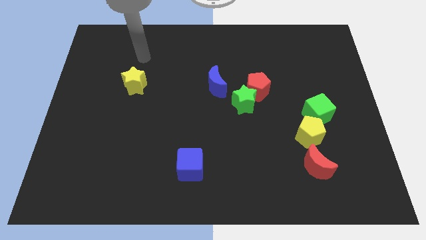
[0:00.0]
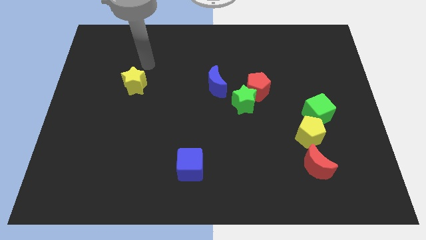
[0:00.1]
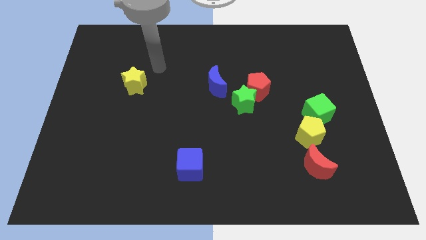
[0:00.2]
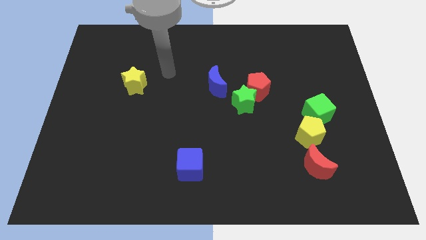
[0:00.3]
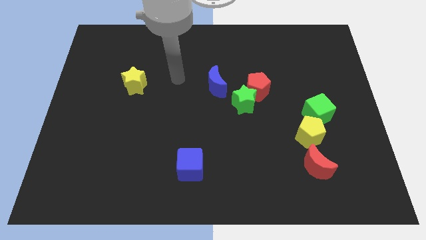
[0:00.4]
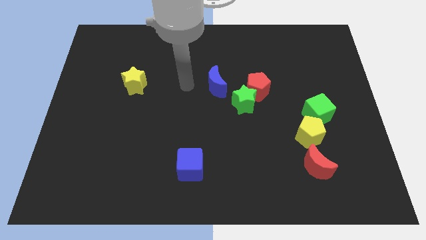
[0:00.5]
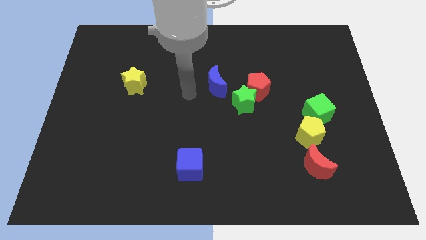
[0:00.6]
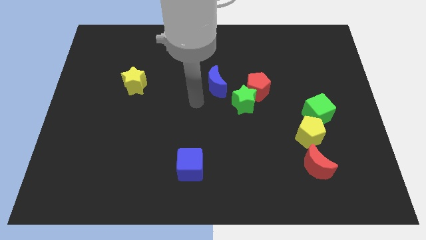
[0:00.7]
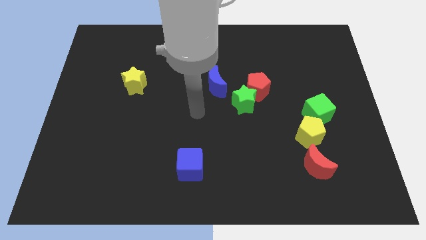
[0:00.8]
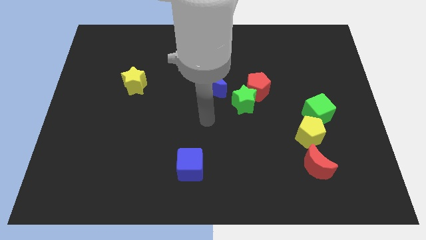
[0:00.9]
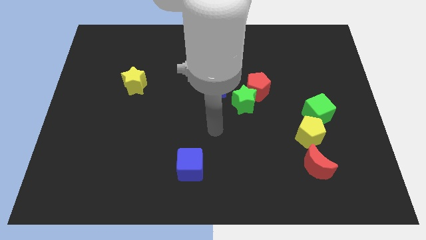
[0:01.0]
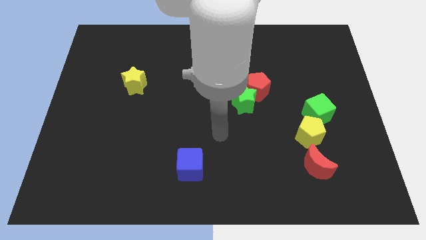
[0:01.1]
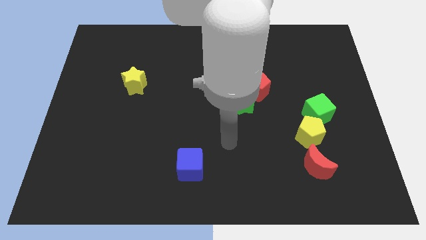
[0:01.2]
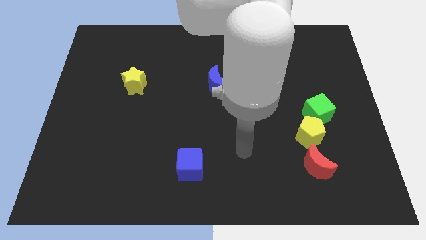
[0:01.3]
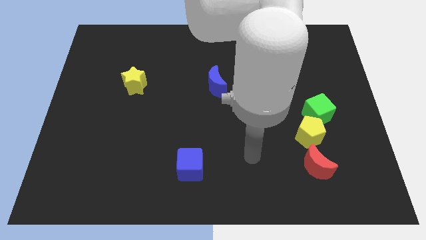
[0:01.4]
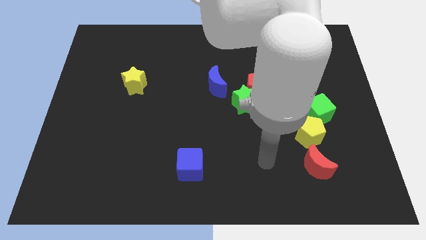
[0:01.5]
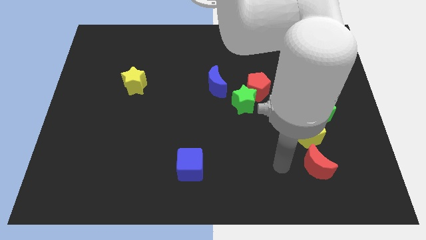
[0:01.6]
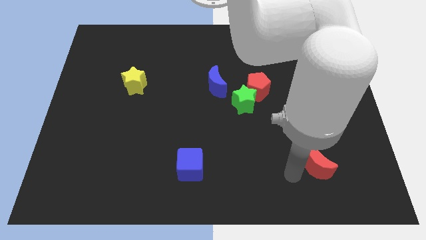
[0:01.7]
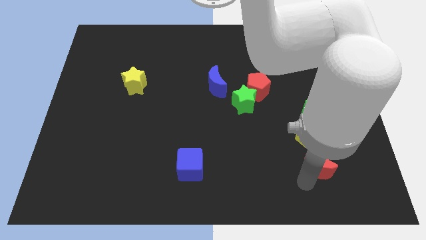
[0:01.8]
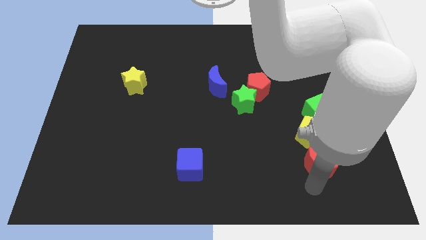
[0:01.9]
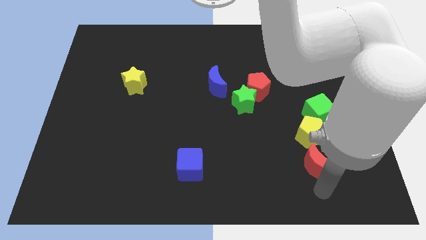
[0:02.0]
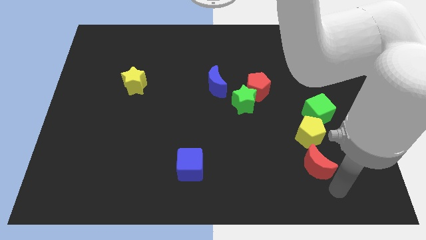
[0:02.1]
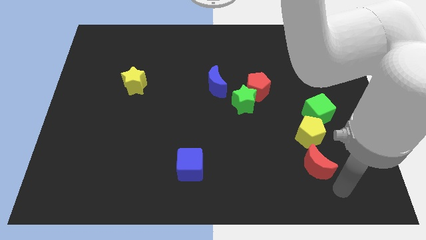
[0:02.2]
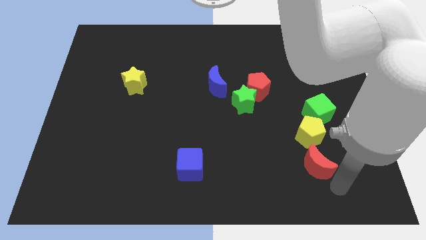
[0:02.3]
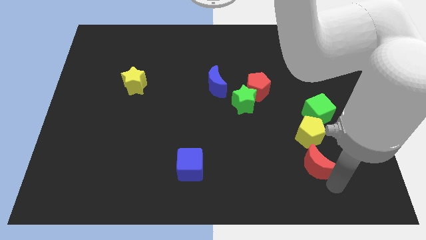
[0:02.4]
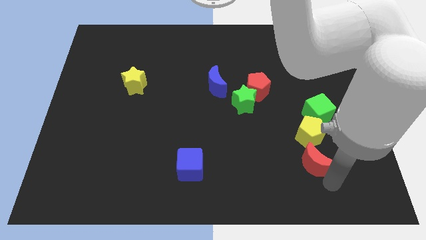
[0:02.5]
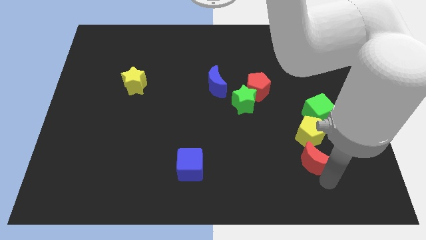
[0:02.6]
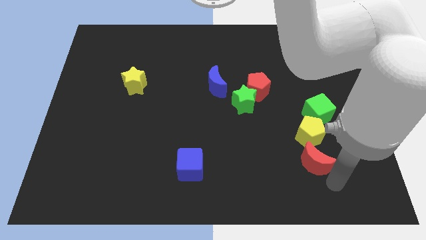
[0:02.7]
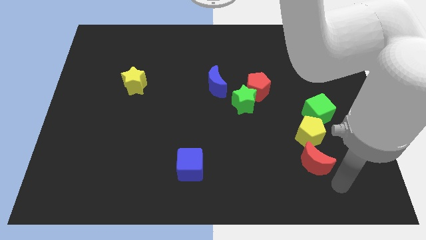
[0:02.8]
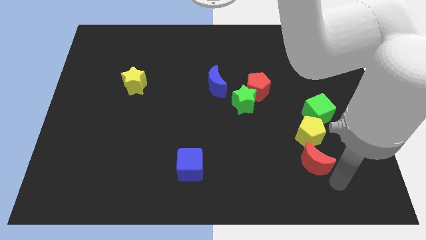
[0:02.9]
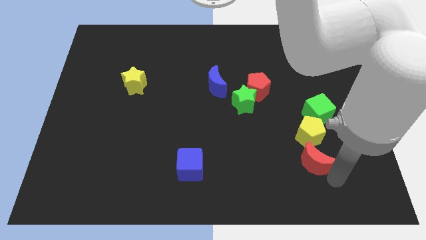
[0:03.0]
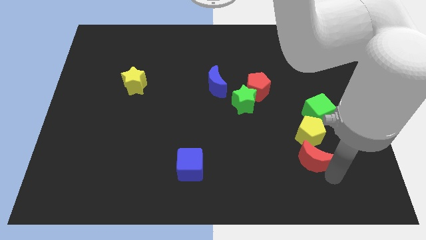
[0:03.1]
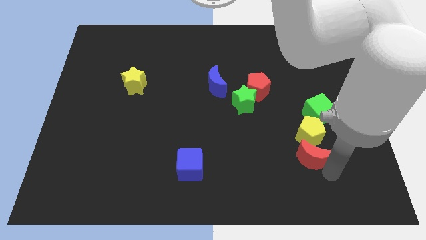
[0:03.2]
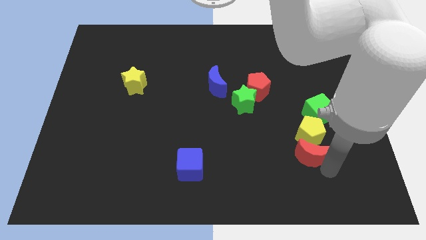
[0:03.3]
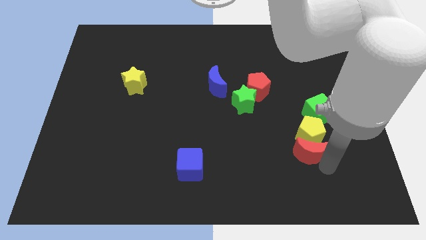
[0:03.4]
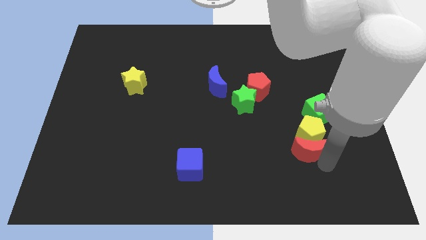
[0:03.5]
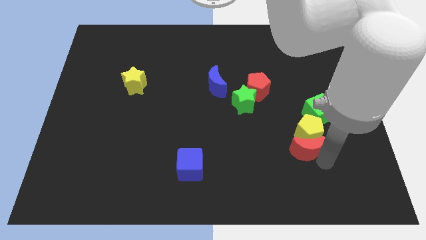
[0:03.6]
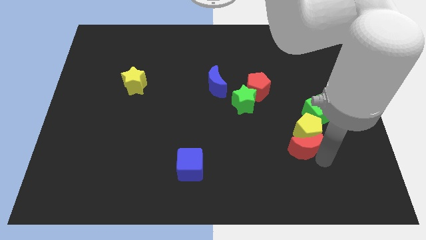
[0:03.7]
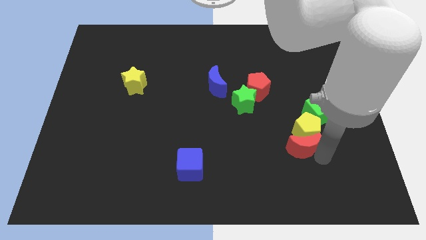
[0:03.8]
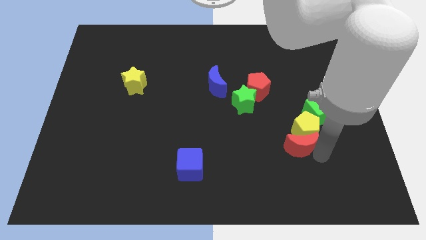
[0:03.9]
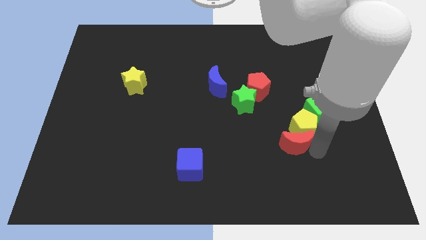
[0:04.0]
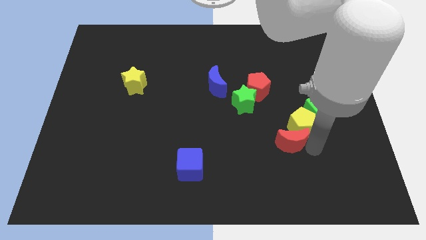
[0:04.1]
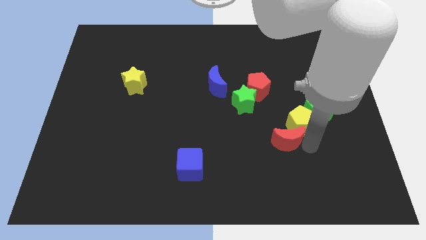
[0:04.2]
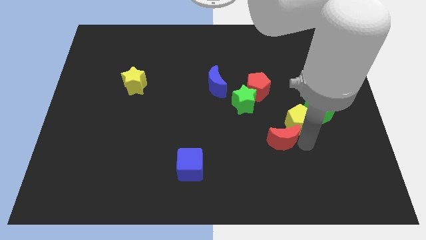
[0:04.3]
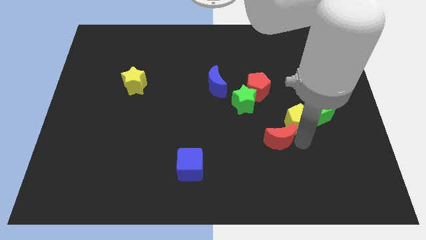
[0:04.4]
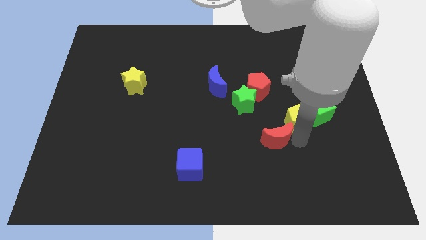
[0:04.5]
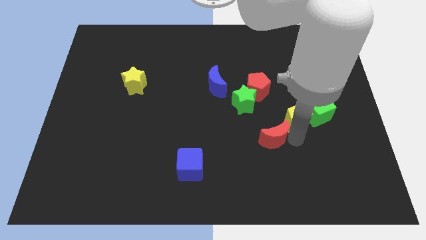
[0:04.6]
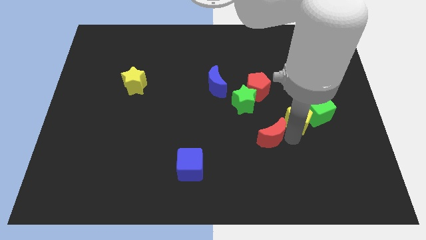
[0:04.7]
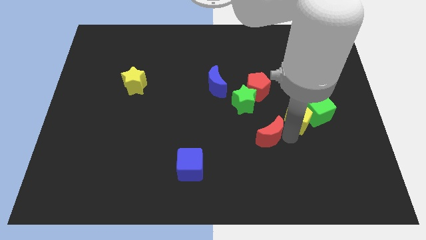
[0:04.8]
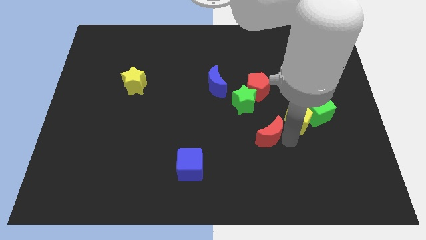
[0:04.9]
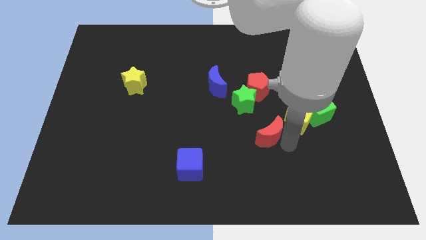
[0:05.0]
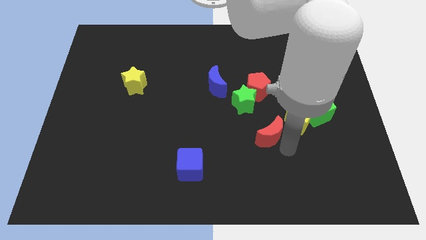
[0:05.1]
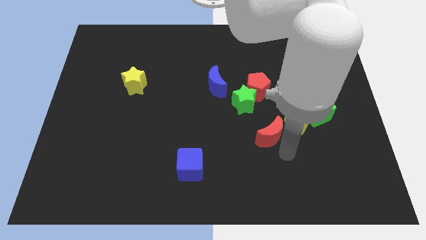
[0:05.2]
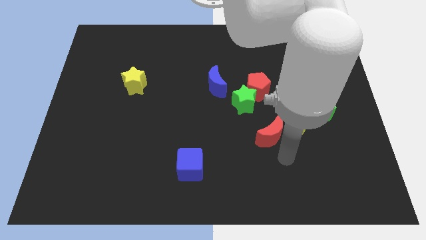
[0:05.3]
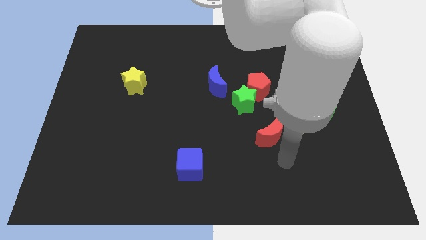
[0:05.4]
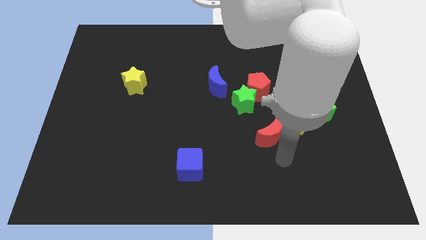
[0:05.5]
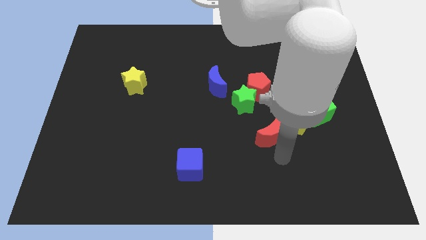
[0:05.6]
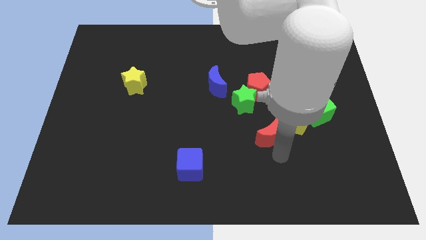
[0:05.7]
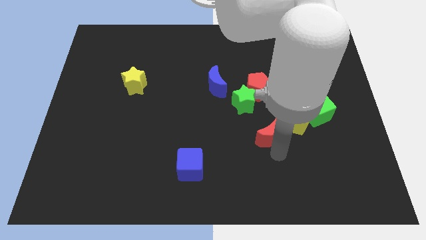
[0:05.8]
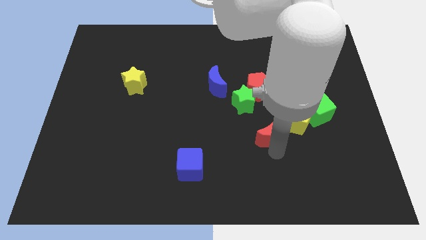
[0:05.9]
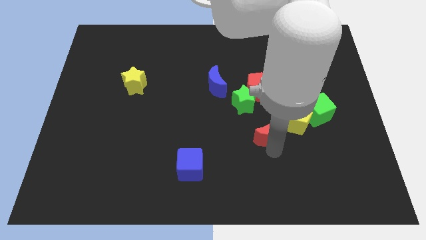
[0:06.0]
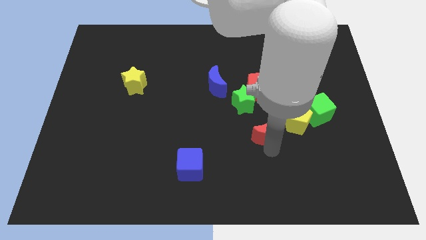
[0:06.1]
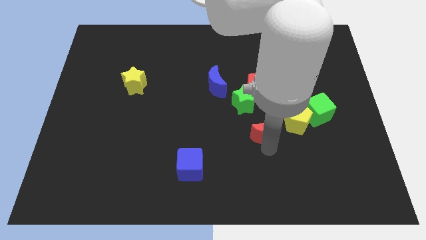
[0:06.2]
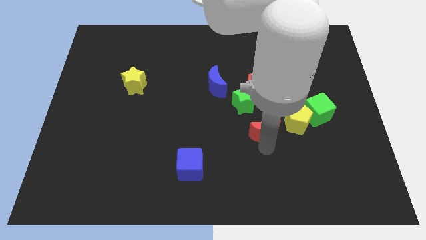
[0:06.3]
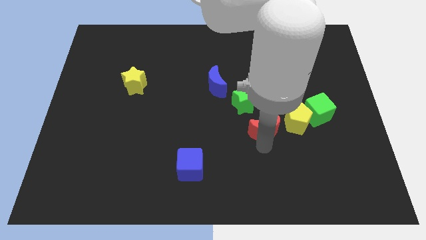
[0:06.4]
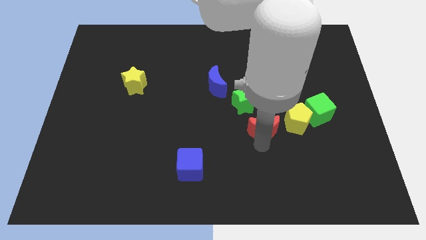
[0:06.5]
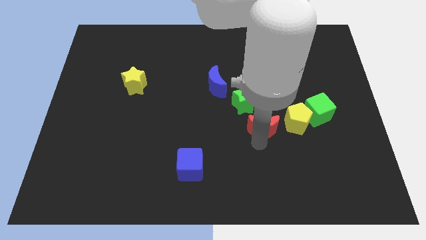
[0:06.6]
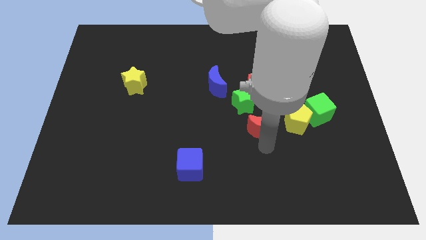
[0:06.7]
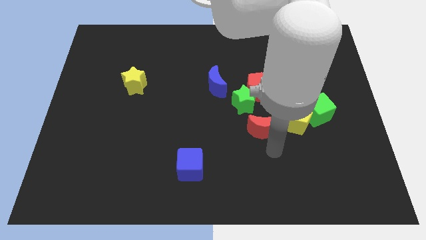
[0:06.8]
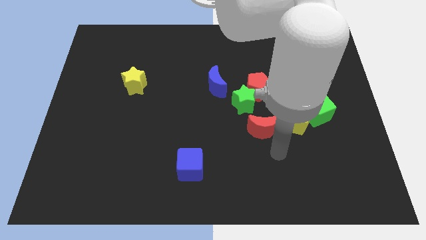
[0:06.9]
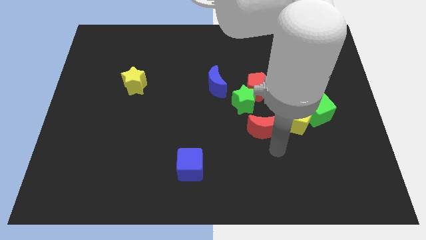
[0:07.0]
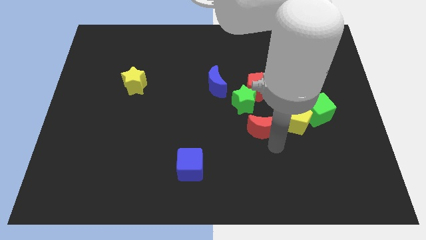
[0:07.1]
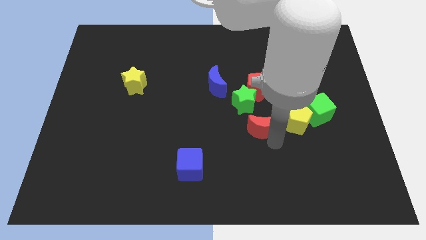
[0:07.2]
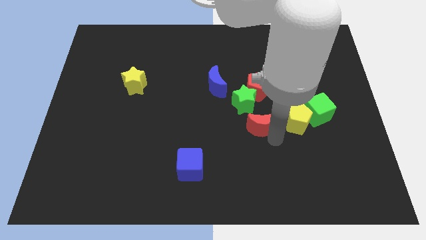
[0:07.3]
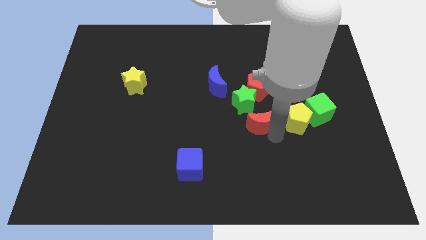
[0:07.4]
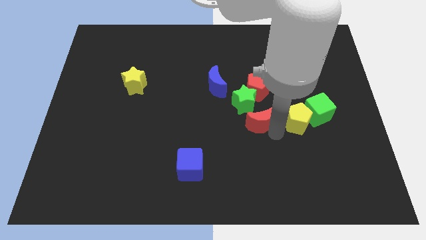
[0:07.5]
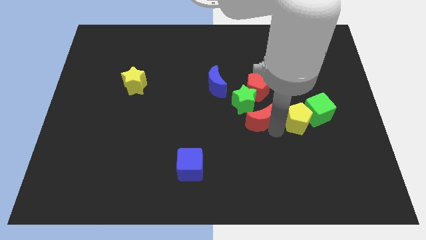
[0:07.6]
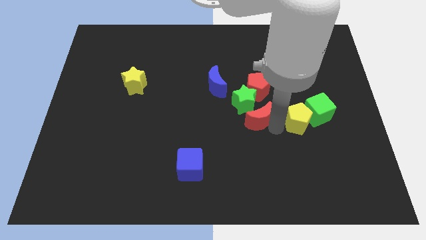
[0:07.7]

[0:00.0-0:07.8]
move the red moon towards the green star
